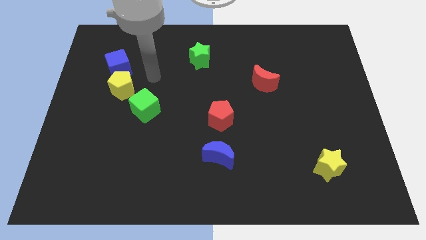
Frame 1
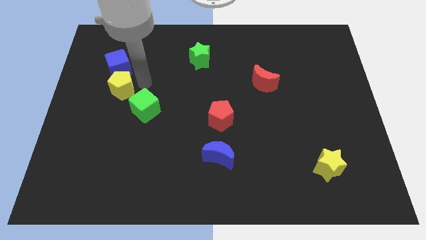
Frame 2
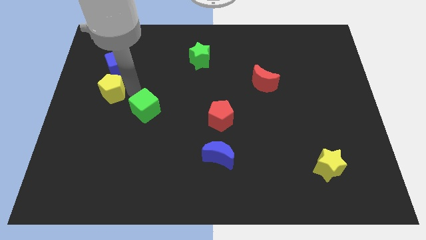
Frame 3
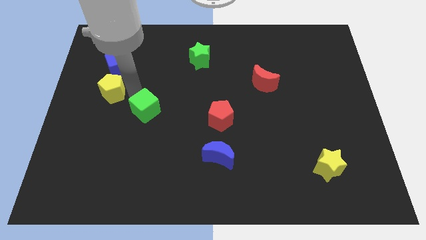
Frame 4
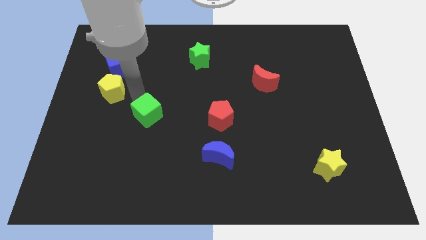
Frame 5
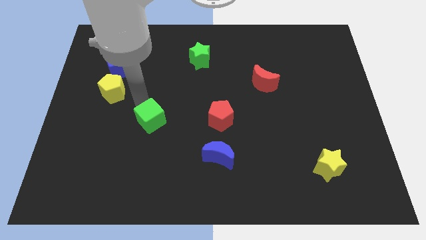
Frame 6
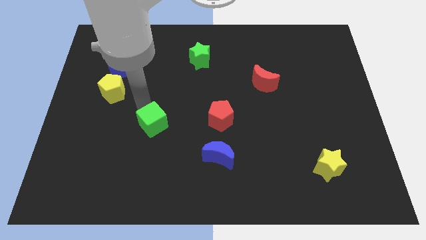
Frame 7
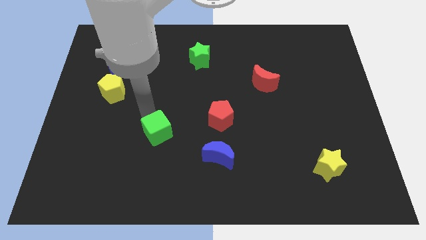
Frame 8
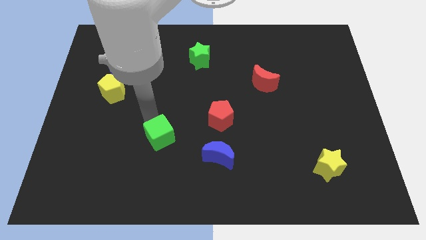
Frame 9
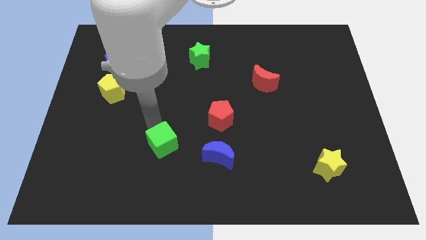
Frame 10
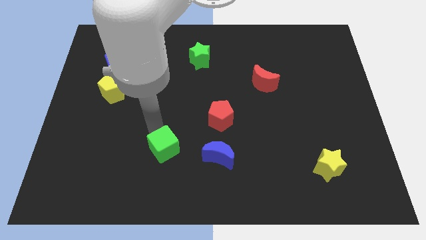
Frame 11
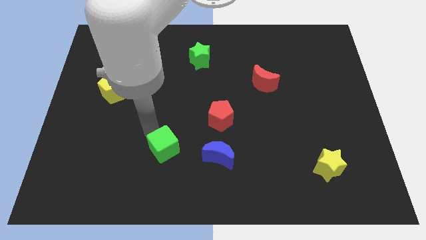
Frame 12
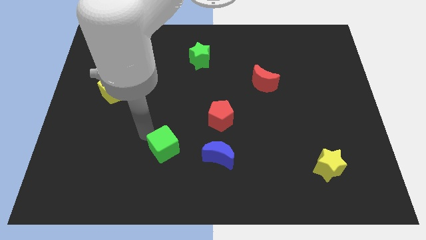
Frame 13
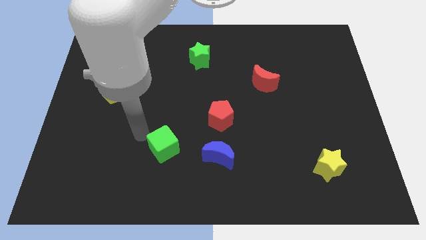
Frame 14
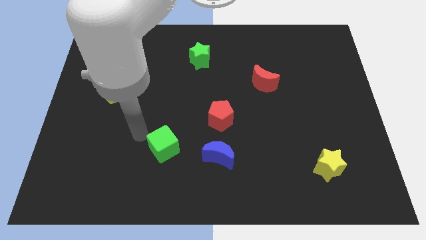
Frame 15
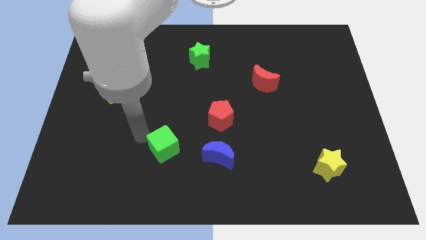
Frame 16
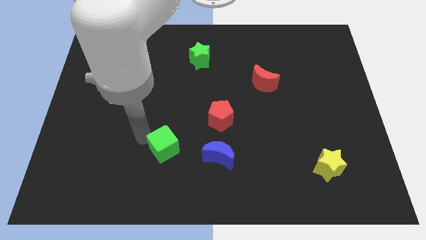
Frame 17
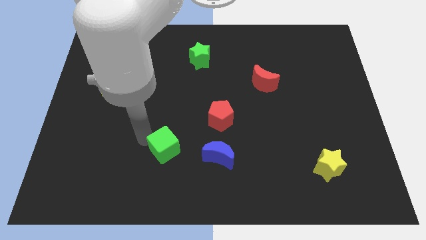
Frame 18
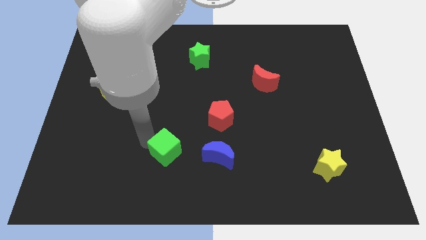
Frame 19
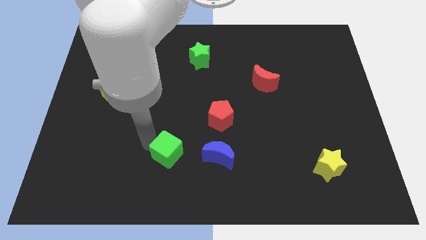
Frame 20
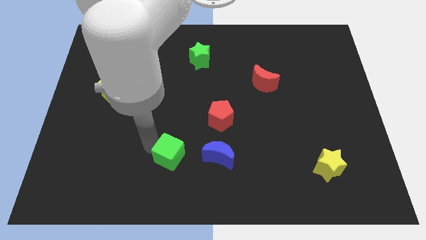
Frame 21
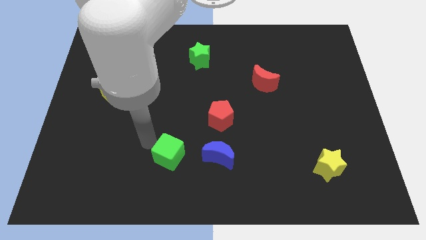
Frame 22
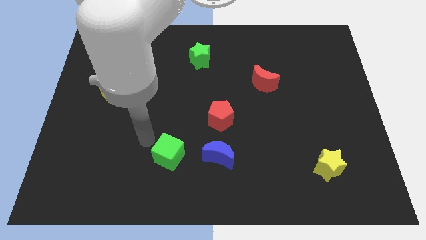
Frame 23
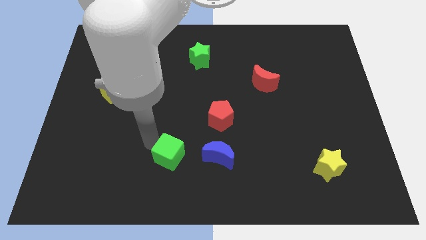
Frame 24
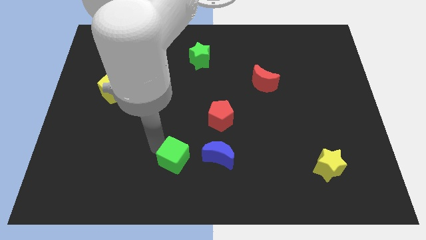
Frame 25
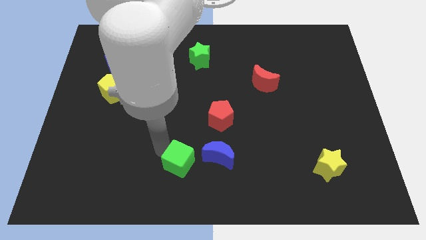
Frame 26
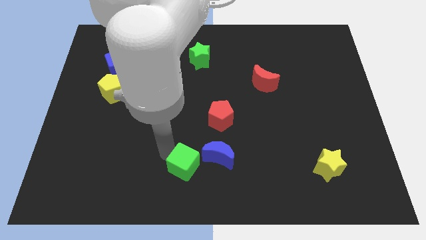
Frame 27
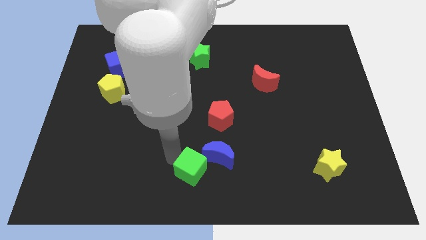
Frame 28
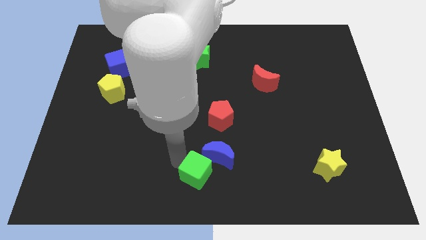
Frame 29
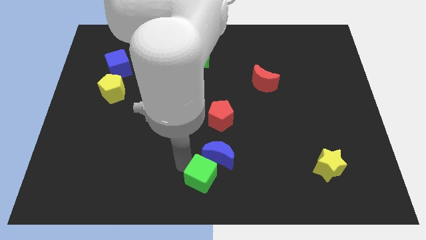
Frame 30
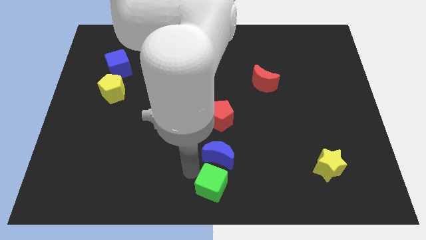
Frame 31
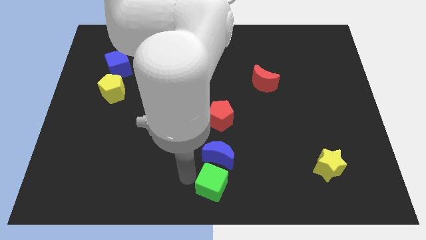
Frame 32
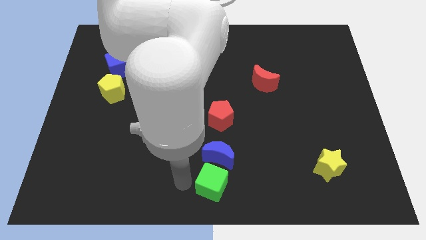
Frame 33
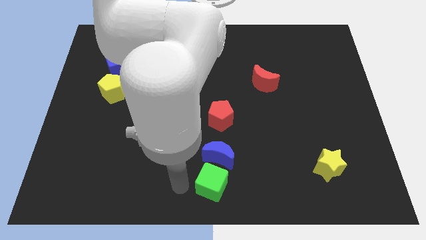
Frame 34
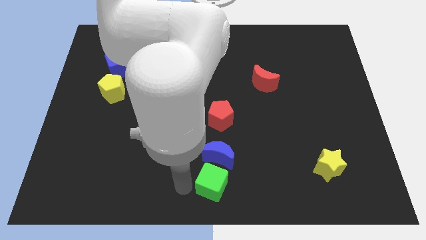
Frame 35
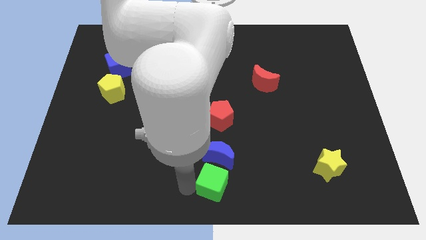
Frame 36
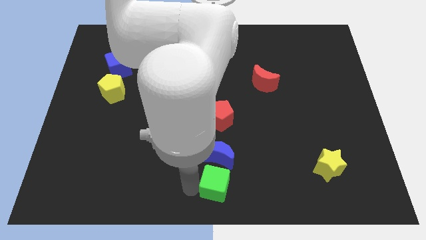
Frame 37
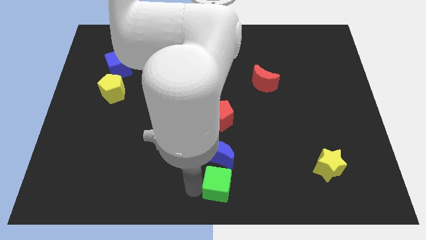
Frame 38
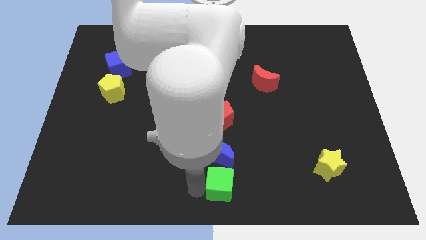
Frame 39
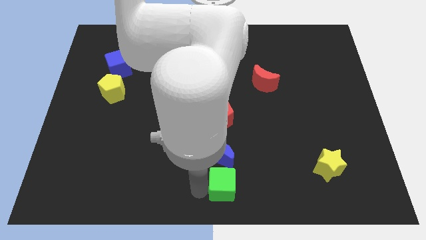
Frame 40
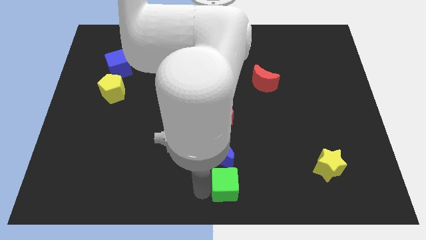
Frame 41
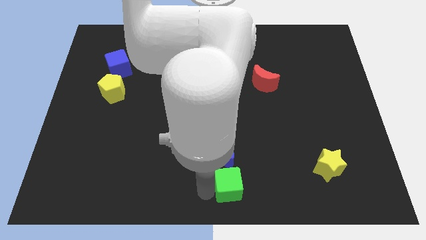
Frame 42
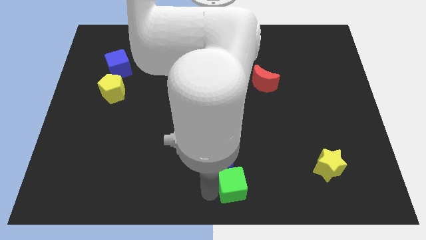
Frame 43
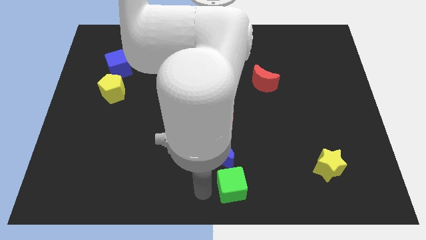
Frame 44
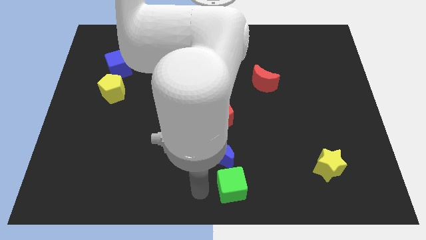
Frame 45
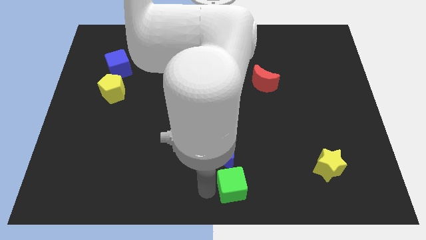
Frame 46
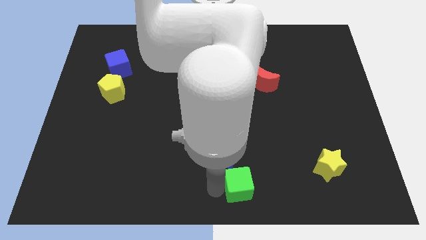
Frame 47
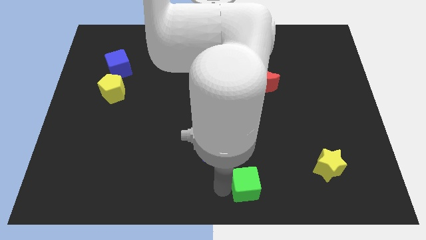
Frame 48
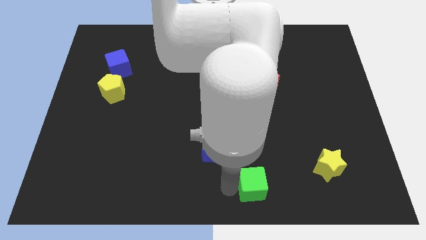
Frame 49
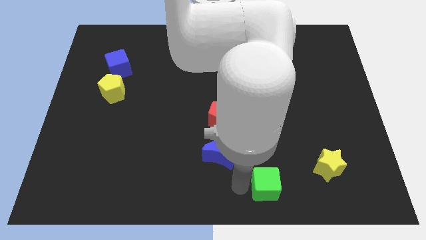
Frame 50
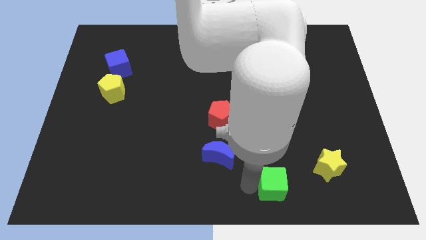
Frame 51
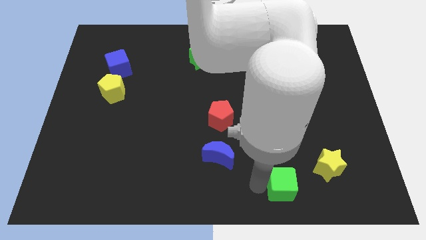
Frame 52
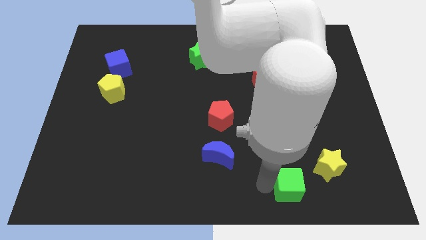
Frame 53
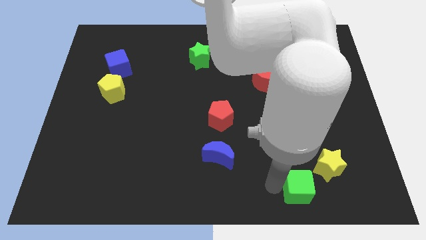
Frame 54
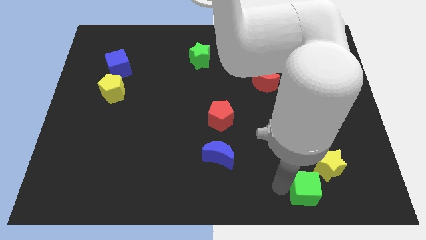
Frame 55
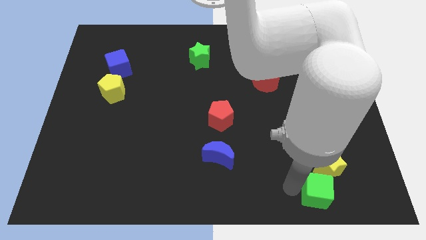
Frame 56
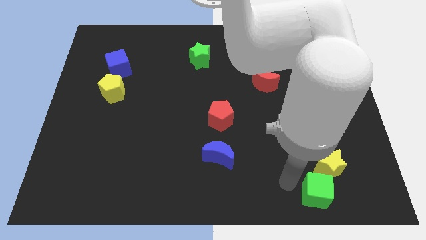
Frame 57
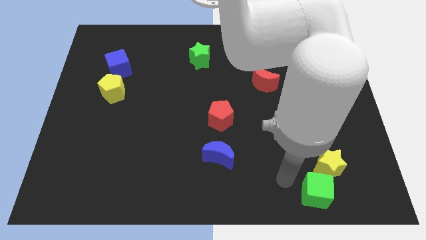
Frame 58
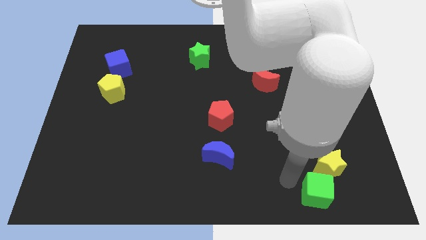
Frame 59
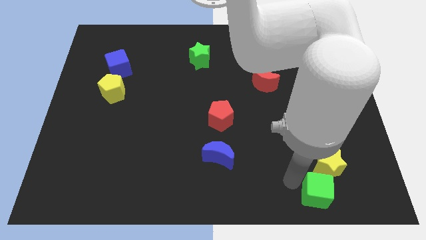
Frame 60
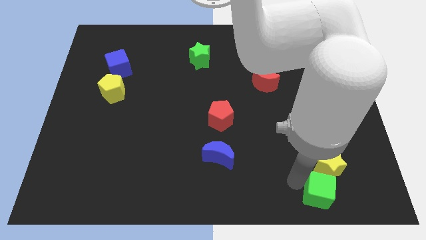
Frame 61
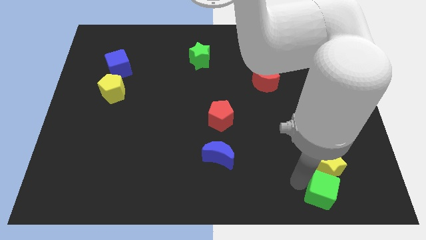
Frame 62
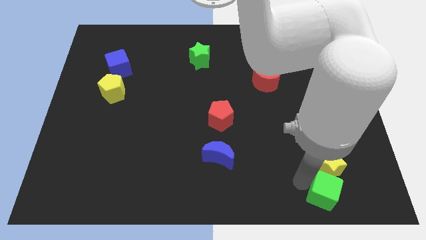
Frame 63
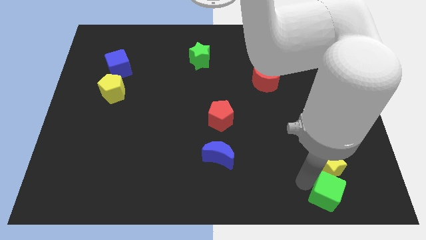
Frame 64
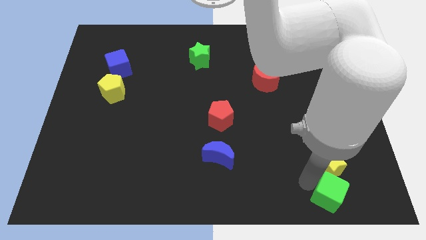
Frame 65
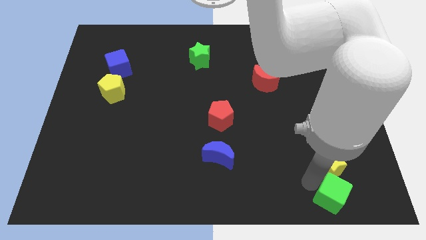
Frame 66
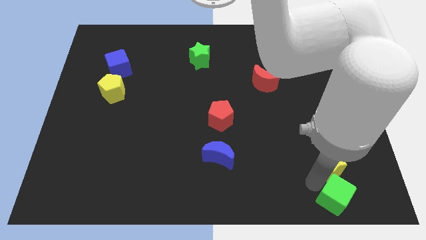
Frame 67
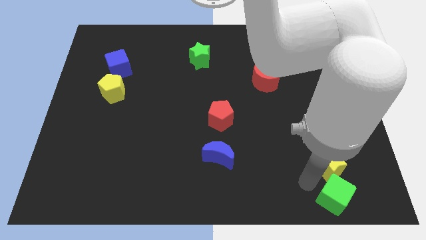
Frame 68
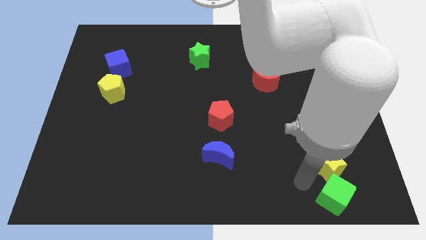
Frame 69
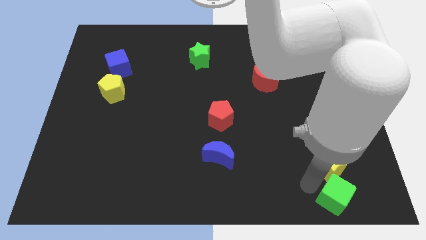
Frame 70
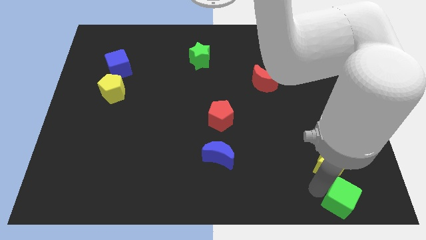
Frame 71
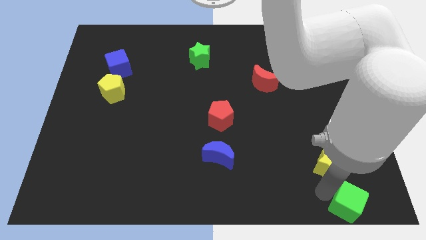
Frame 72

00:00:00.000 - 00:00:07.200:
push the green cube to the bottom right
